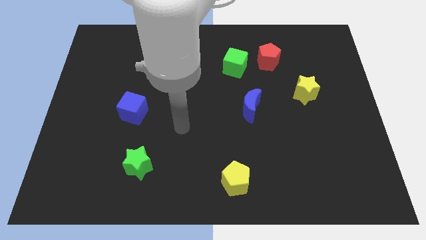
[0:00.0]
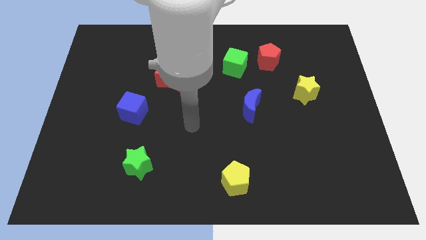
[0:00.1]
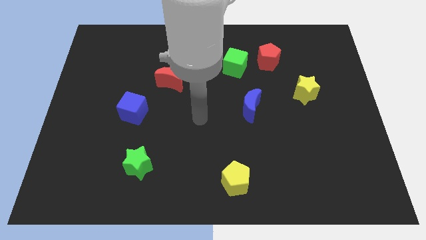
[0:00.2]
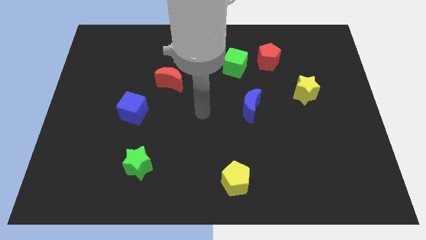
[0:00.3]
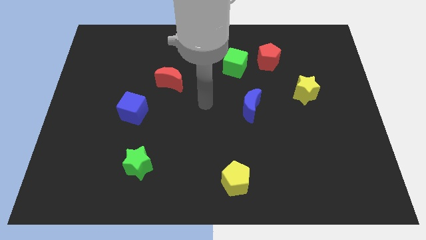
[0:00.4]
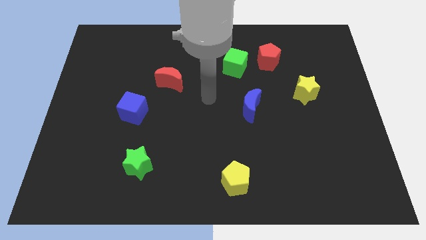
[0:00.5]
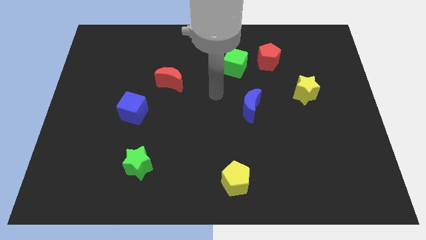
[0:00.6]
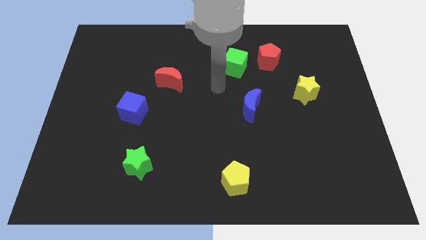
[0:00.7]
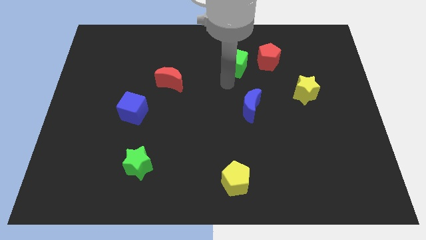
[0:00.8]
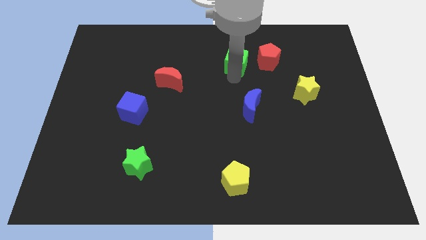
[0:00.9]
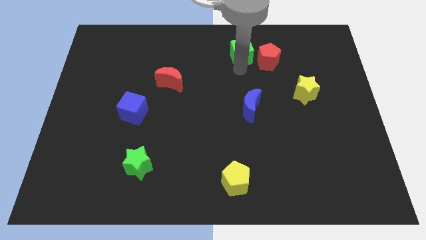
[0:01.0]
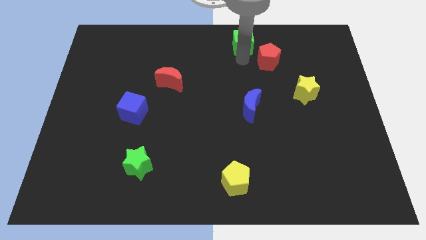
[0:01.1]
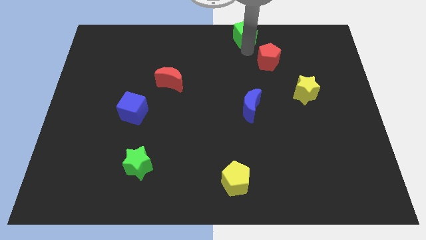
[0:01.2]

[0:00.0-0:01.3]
pull the red pentagon apart from the green cube

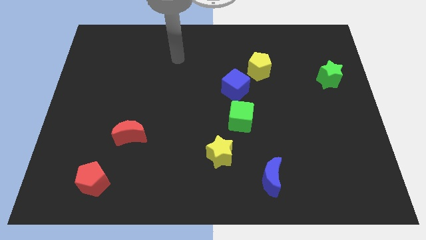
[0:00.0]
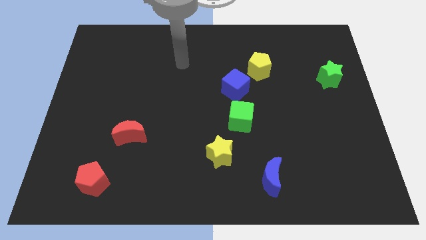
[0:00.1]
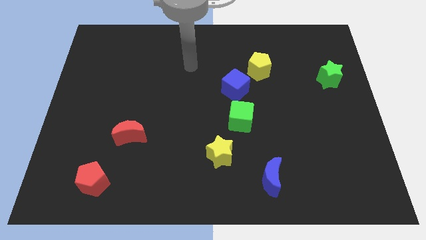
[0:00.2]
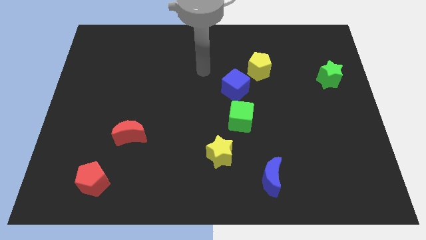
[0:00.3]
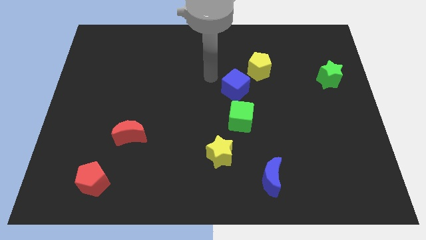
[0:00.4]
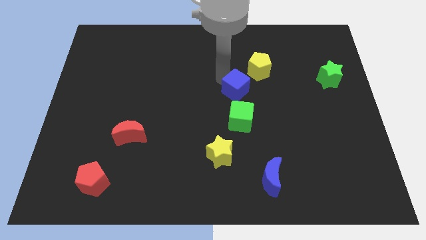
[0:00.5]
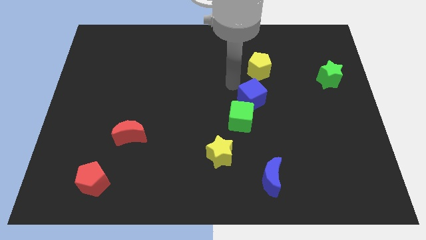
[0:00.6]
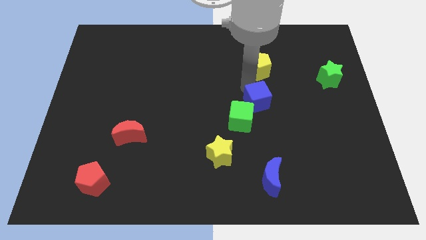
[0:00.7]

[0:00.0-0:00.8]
move the yellow pentagon away from the blue cube

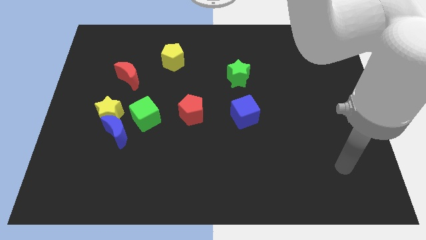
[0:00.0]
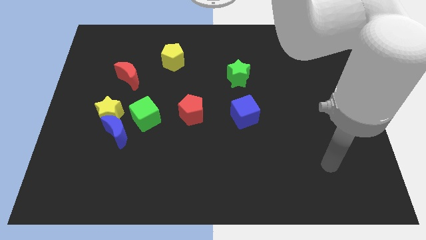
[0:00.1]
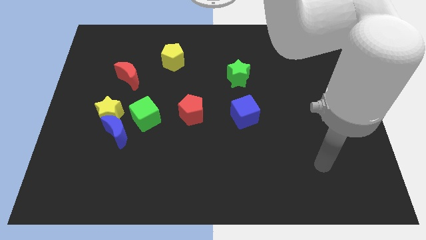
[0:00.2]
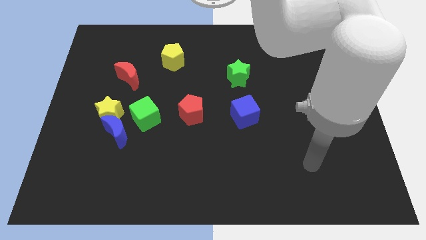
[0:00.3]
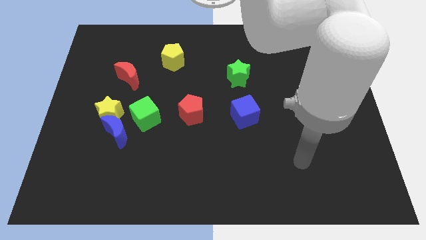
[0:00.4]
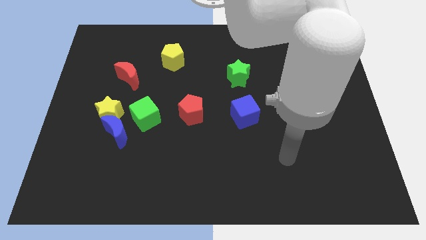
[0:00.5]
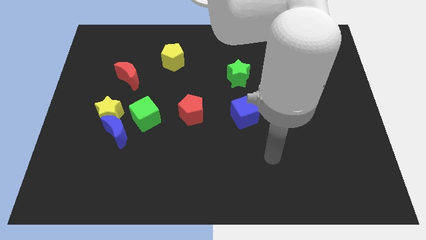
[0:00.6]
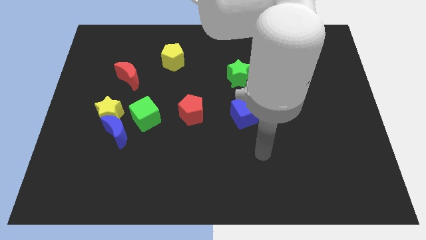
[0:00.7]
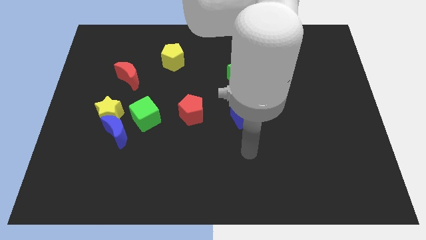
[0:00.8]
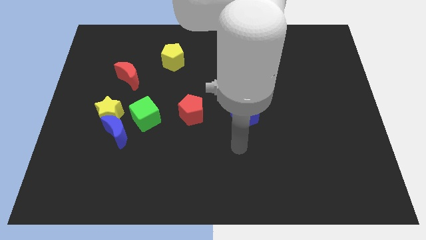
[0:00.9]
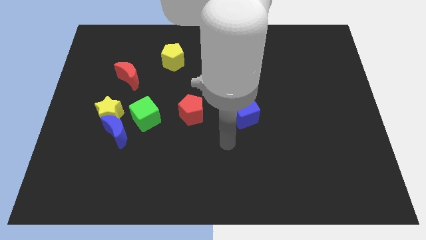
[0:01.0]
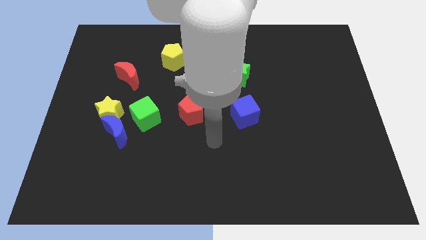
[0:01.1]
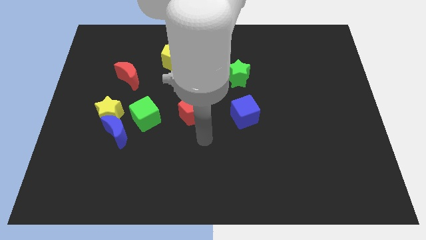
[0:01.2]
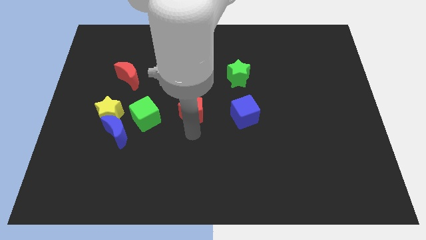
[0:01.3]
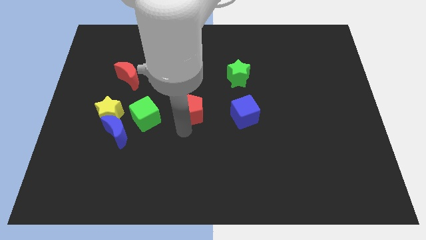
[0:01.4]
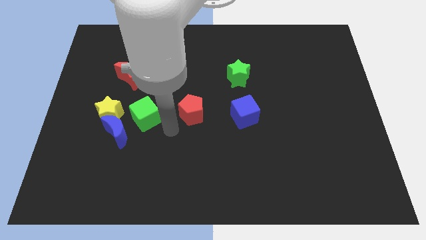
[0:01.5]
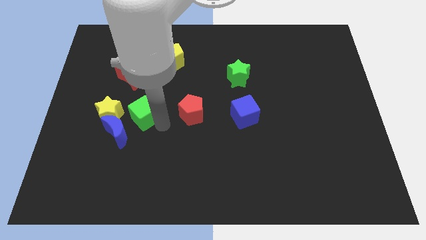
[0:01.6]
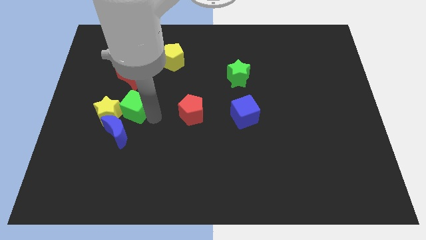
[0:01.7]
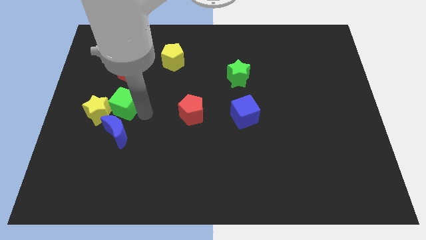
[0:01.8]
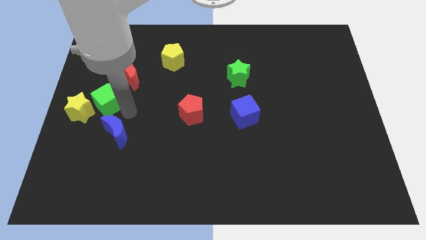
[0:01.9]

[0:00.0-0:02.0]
move the blue moon away from the yellow star and green cube

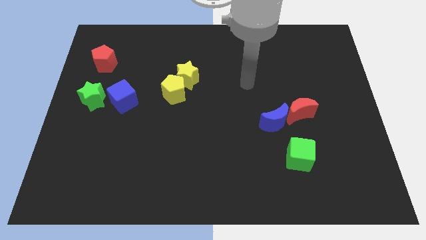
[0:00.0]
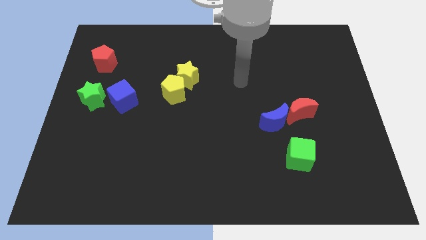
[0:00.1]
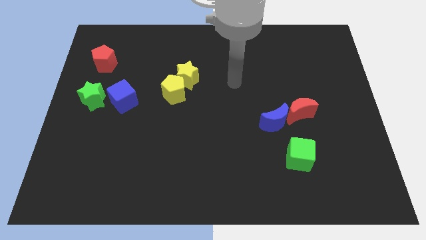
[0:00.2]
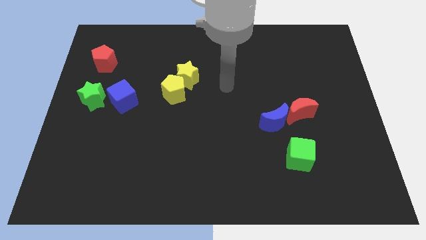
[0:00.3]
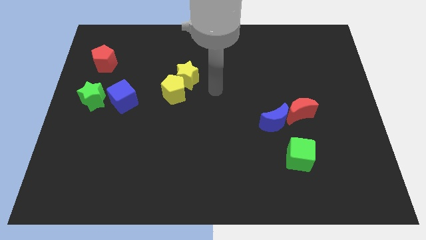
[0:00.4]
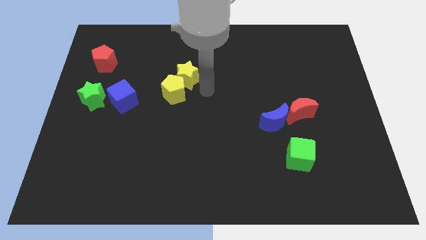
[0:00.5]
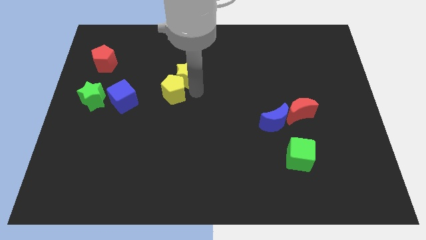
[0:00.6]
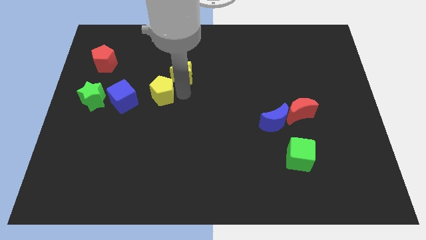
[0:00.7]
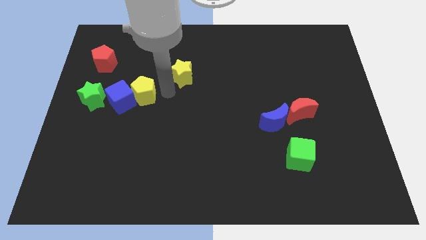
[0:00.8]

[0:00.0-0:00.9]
separate the yellow star from the yellow pentagon

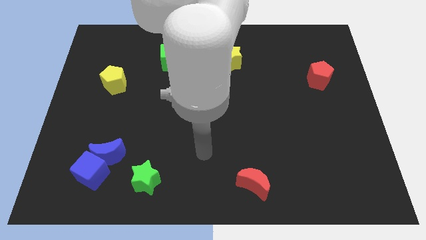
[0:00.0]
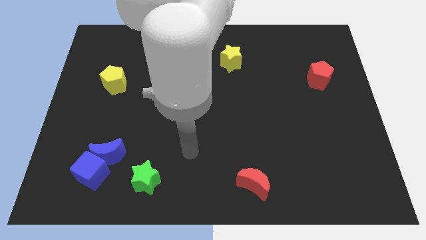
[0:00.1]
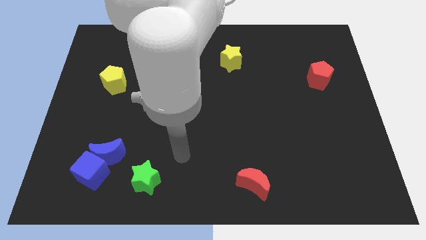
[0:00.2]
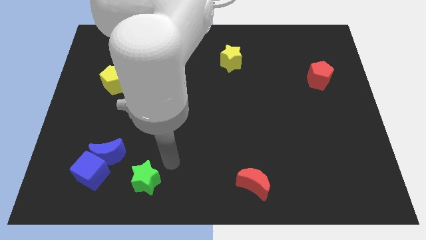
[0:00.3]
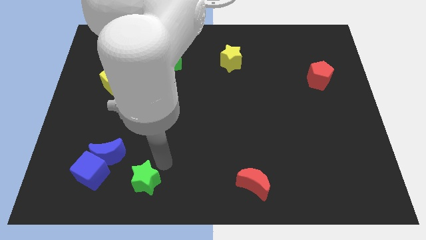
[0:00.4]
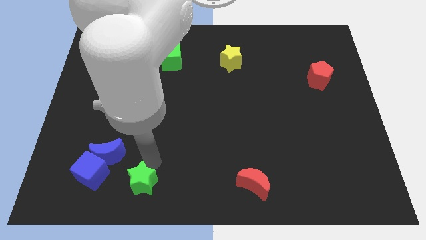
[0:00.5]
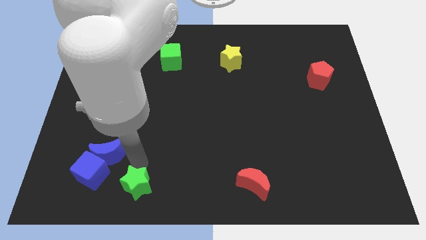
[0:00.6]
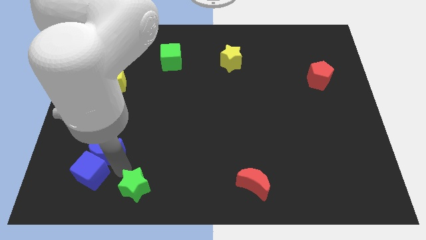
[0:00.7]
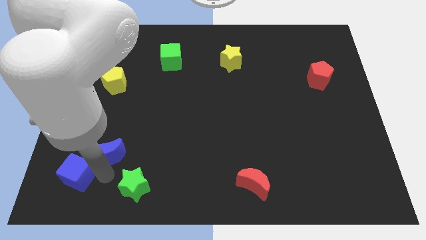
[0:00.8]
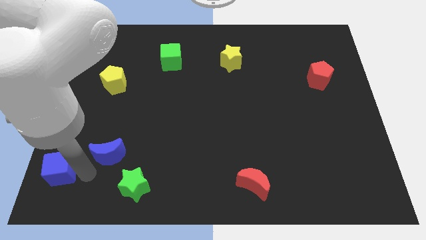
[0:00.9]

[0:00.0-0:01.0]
pull the blue moon apart from the blue cube

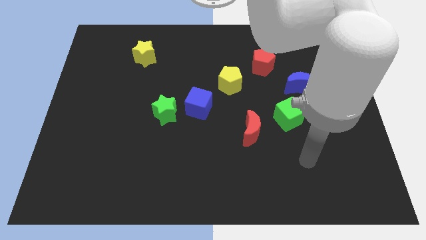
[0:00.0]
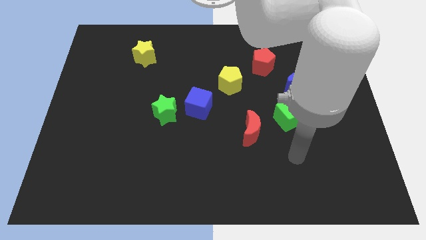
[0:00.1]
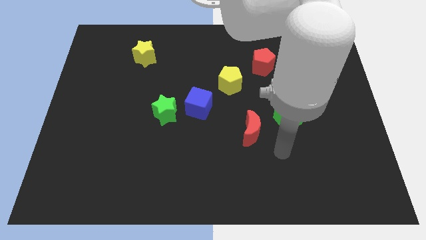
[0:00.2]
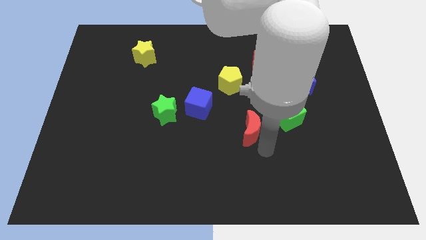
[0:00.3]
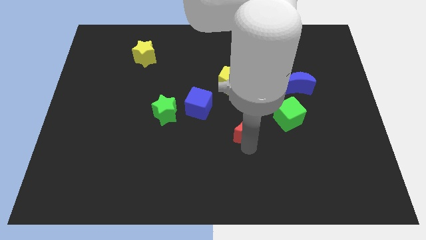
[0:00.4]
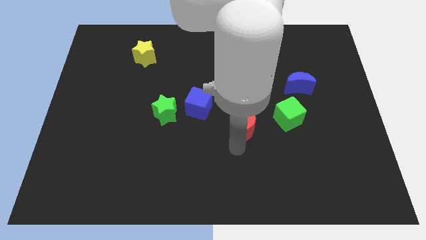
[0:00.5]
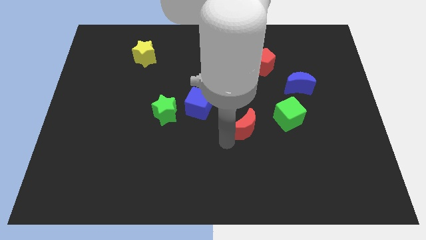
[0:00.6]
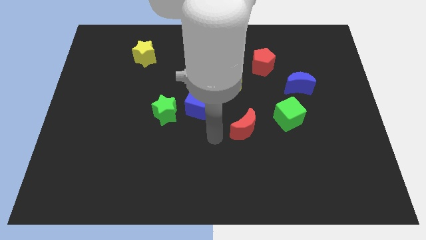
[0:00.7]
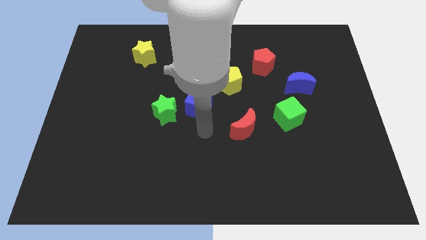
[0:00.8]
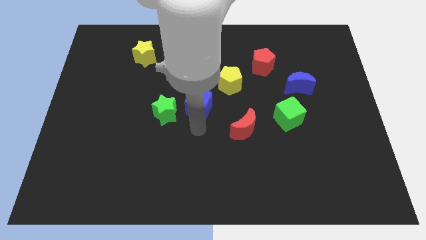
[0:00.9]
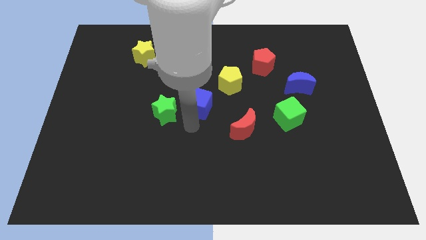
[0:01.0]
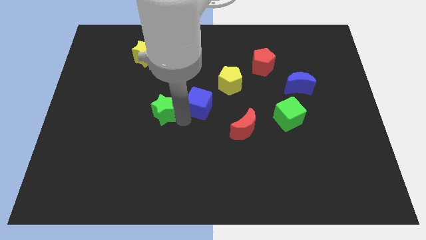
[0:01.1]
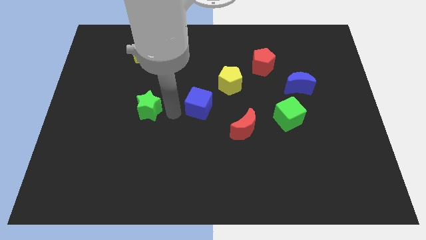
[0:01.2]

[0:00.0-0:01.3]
pull the blue cube apart from the green star

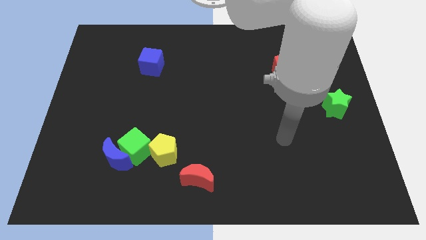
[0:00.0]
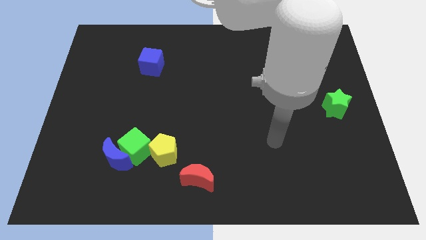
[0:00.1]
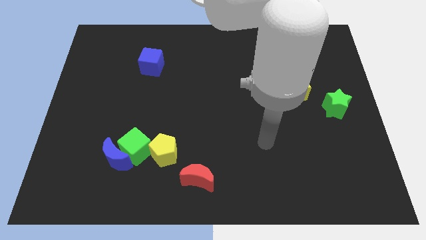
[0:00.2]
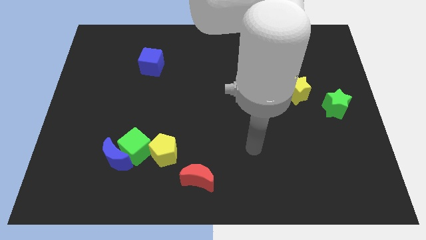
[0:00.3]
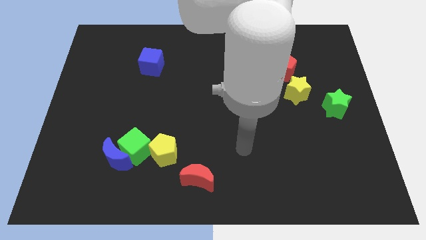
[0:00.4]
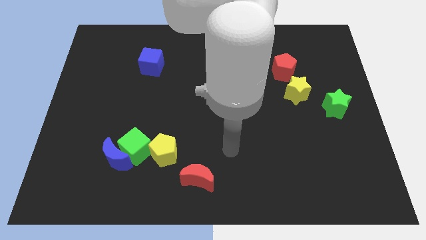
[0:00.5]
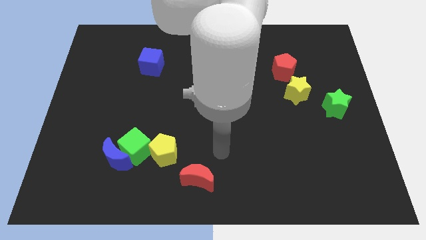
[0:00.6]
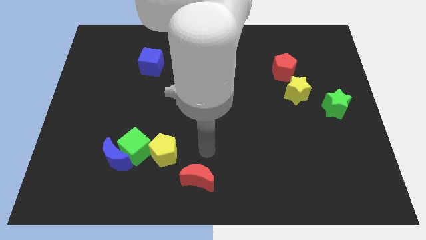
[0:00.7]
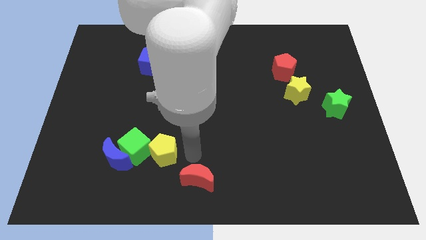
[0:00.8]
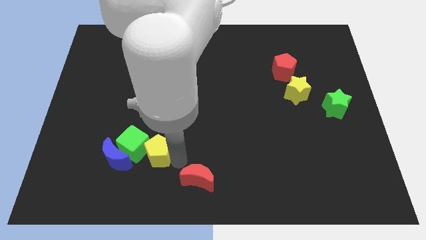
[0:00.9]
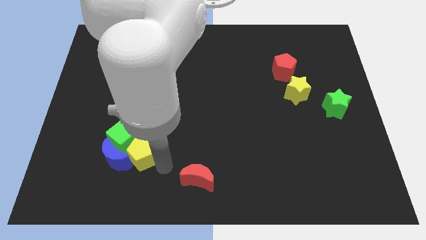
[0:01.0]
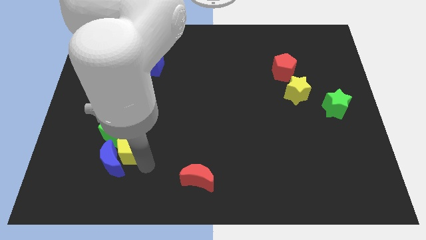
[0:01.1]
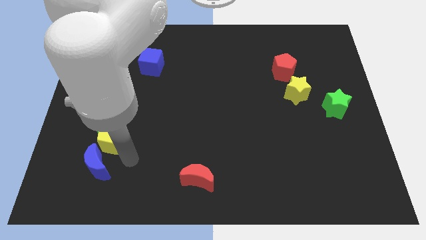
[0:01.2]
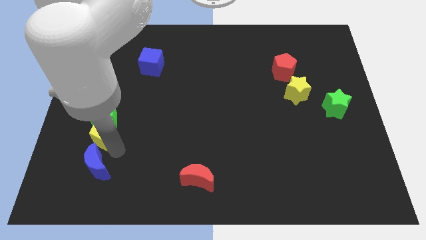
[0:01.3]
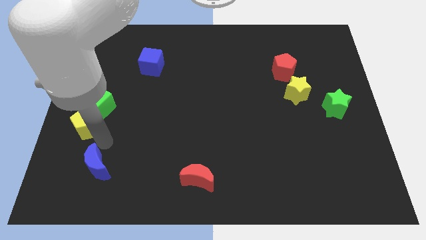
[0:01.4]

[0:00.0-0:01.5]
pull the green cube apart from the blue moon and yellow pentagon

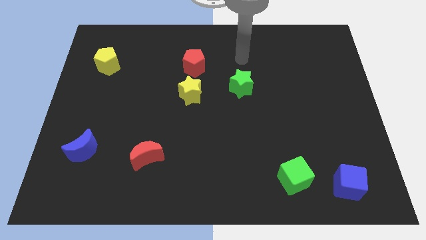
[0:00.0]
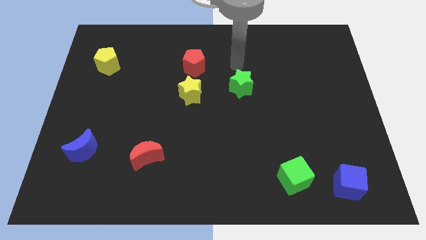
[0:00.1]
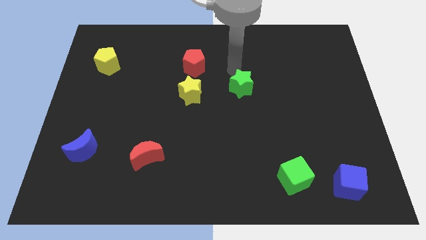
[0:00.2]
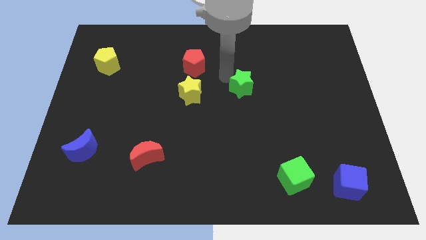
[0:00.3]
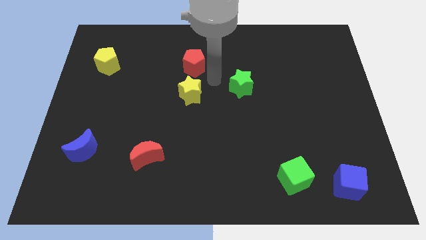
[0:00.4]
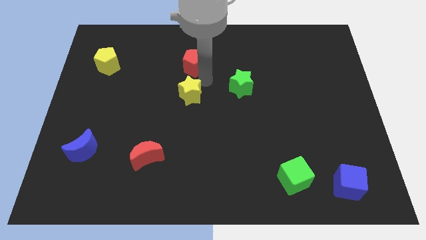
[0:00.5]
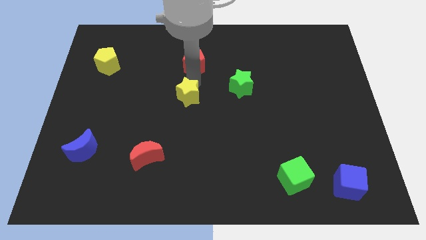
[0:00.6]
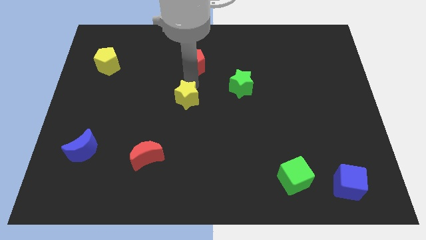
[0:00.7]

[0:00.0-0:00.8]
move the red pentagon away from the yellow star
